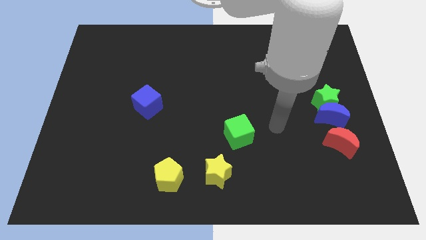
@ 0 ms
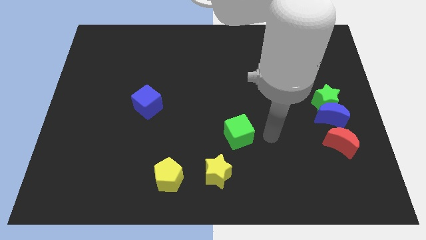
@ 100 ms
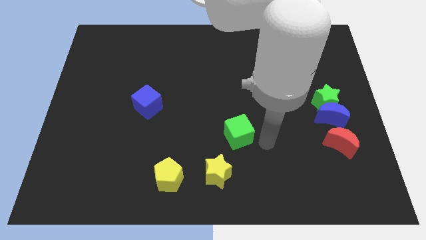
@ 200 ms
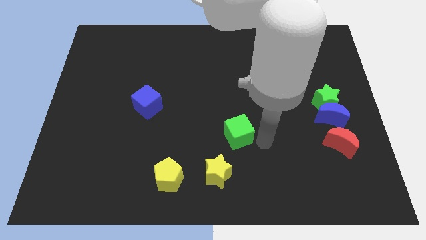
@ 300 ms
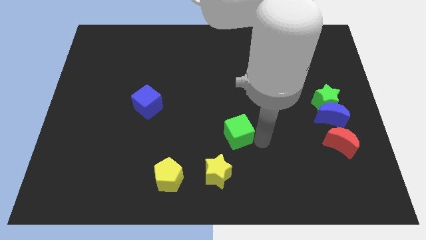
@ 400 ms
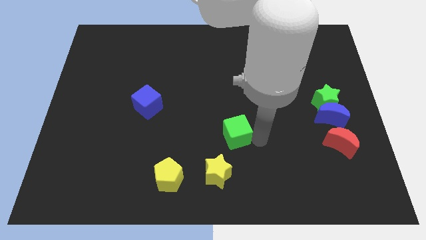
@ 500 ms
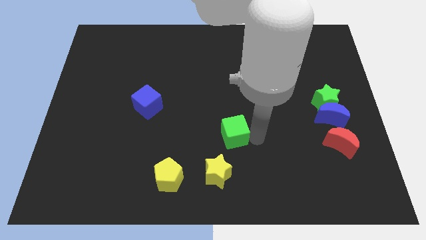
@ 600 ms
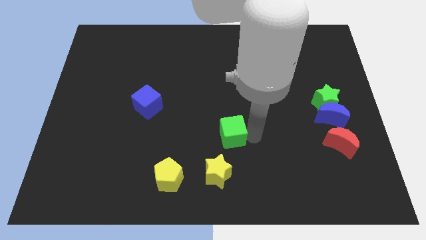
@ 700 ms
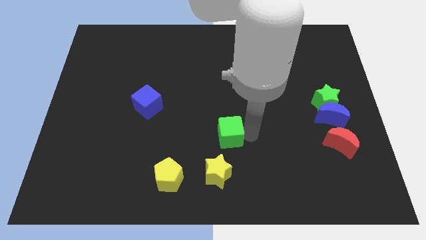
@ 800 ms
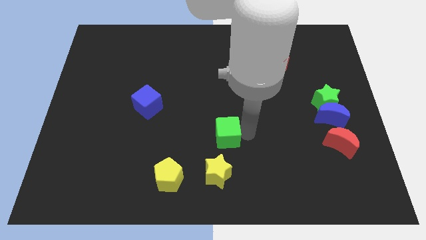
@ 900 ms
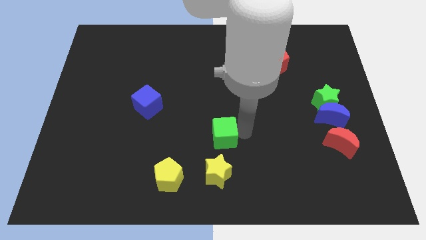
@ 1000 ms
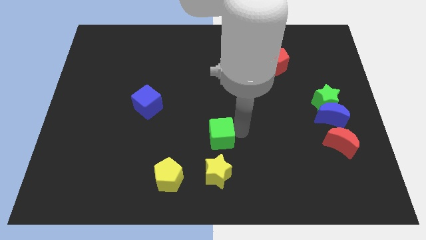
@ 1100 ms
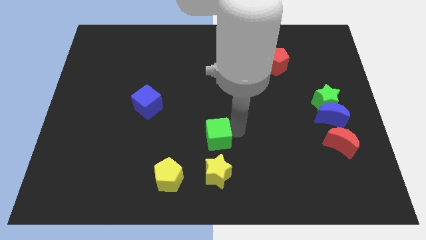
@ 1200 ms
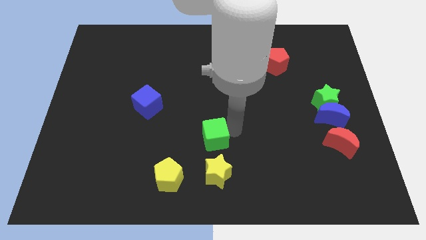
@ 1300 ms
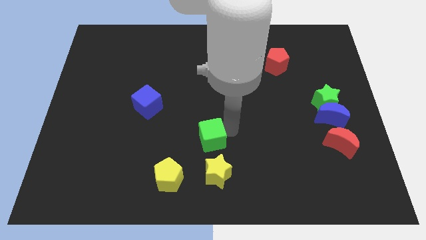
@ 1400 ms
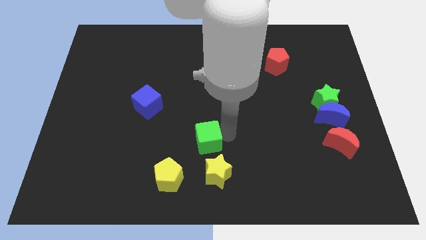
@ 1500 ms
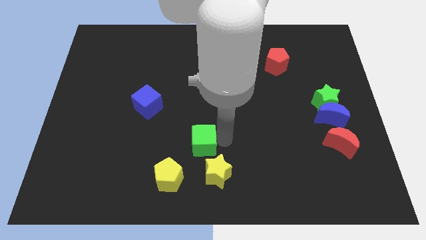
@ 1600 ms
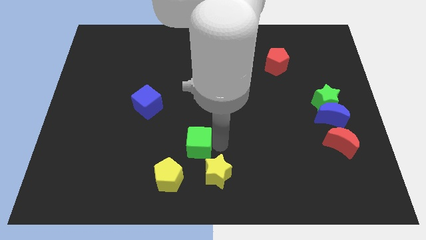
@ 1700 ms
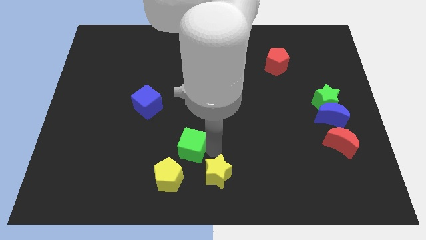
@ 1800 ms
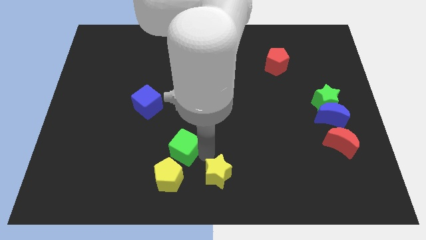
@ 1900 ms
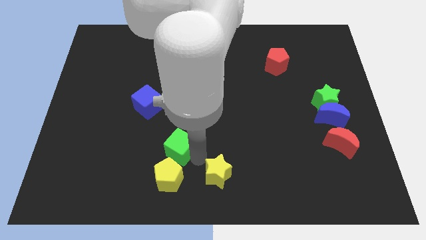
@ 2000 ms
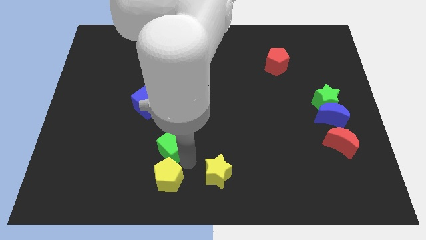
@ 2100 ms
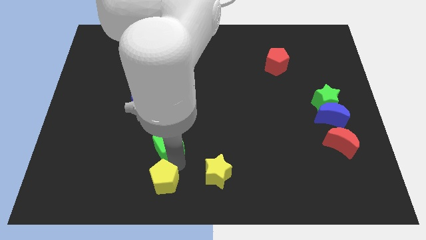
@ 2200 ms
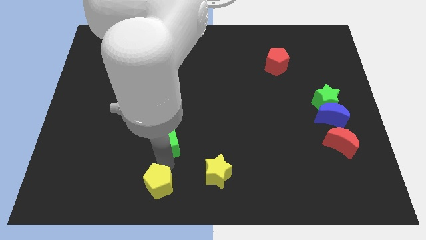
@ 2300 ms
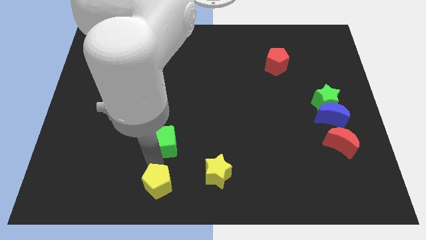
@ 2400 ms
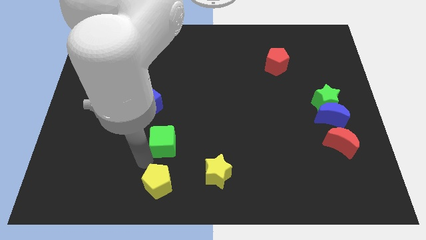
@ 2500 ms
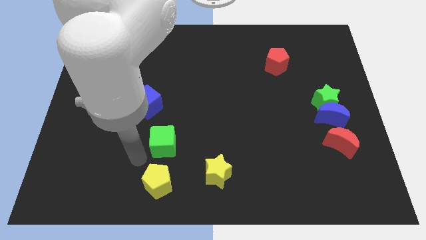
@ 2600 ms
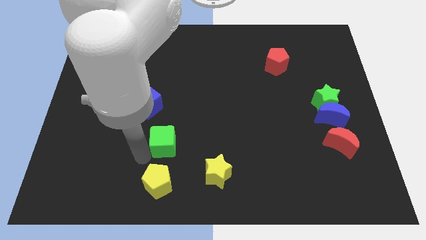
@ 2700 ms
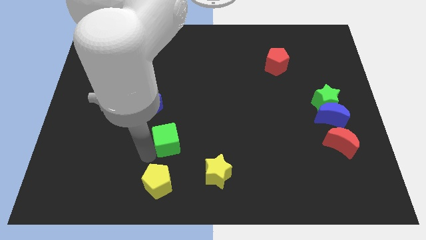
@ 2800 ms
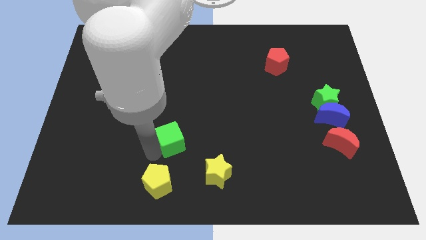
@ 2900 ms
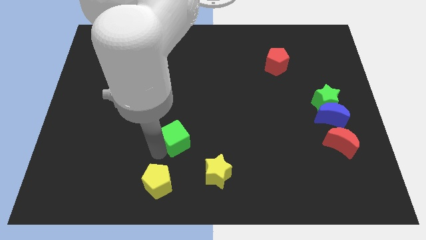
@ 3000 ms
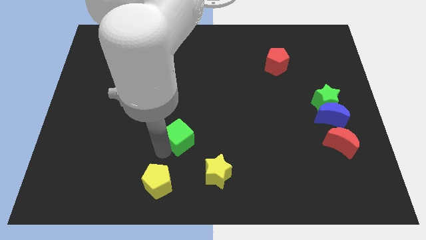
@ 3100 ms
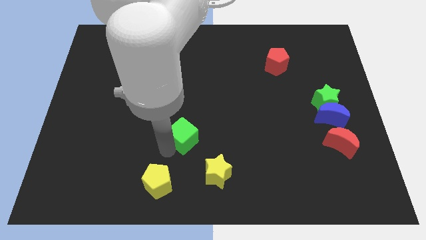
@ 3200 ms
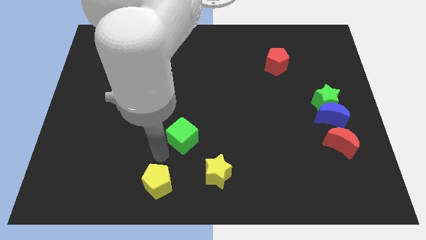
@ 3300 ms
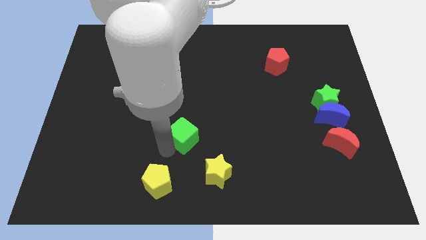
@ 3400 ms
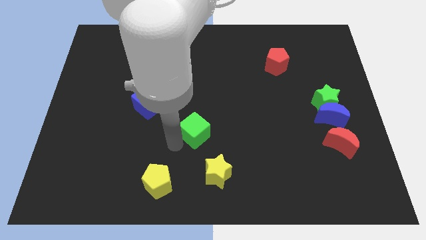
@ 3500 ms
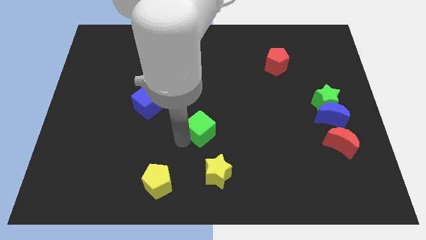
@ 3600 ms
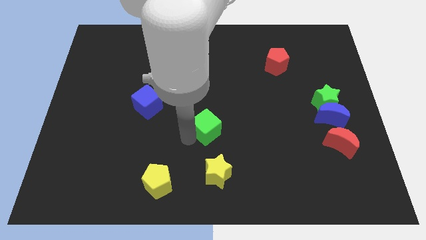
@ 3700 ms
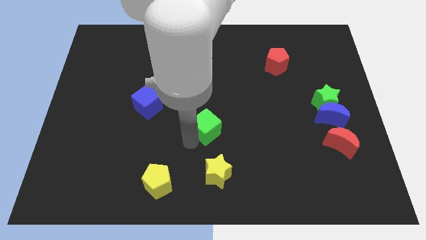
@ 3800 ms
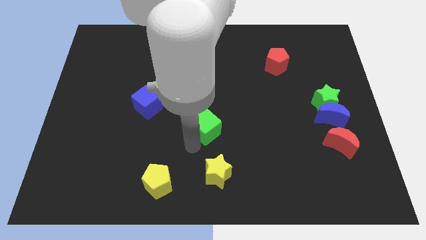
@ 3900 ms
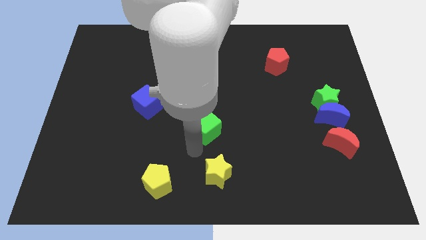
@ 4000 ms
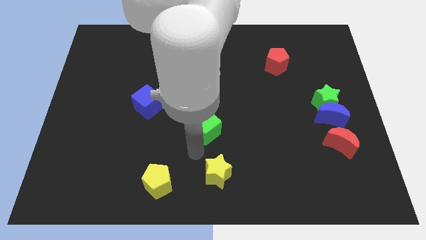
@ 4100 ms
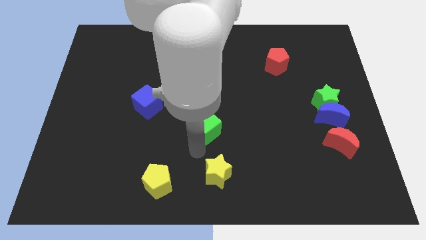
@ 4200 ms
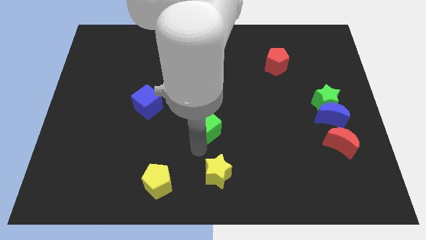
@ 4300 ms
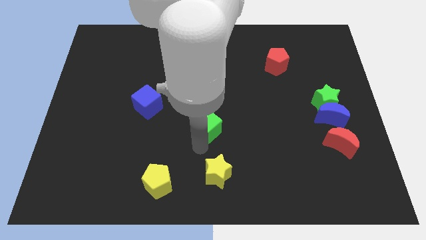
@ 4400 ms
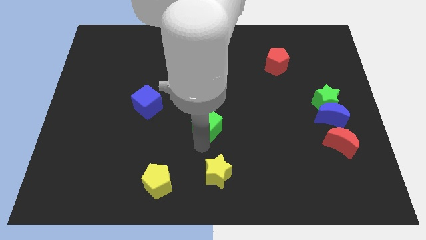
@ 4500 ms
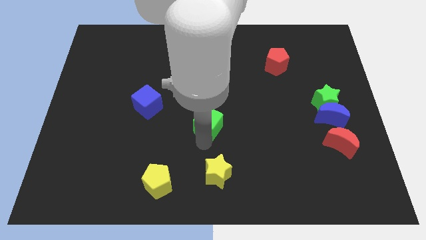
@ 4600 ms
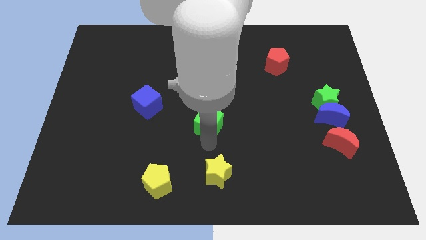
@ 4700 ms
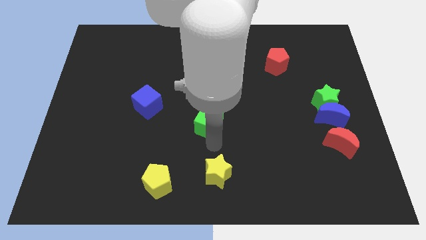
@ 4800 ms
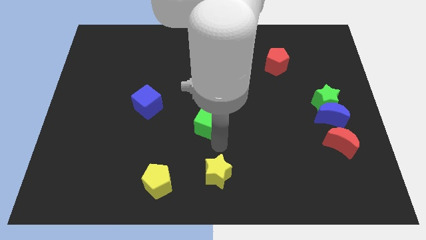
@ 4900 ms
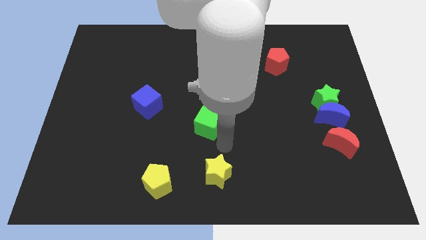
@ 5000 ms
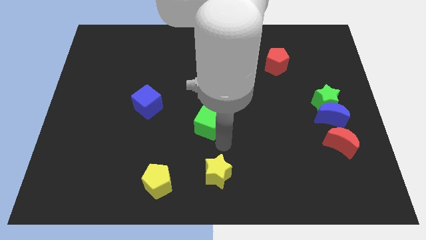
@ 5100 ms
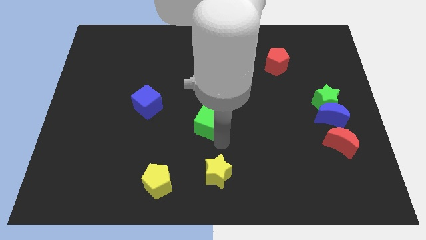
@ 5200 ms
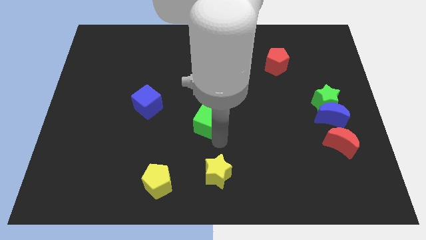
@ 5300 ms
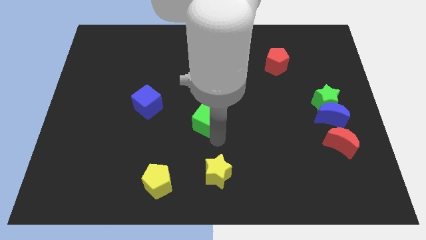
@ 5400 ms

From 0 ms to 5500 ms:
slide the green cube up and to the left a little

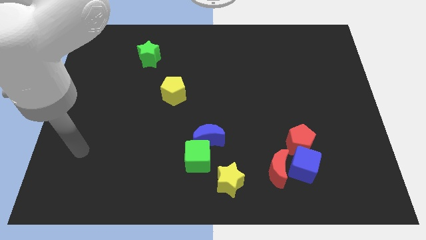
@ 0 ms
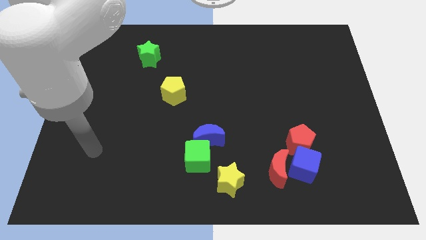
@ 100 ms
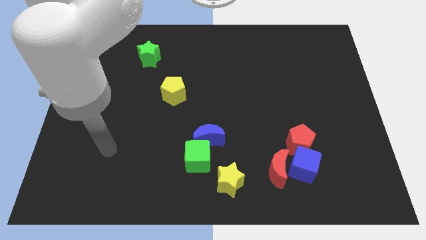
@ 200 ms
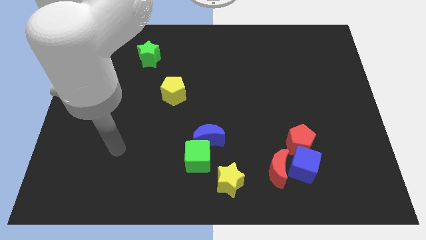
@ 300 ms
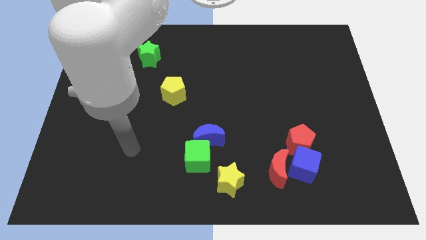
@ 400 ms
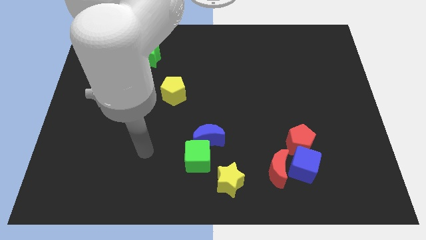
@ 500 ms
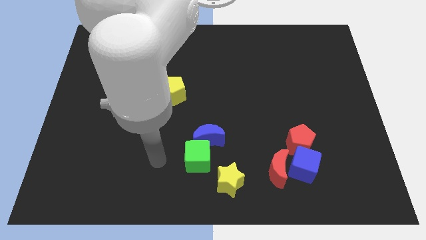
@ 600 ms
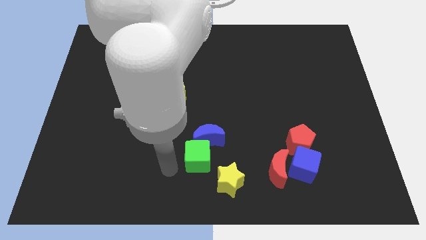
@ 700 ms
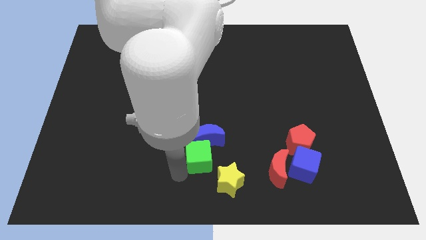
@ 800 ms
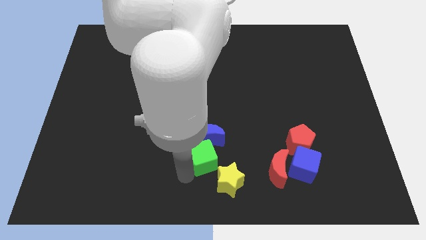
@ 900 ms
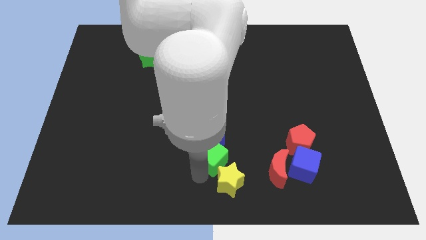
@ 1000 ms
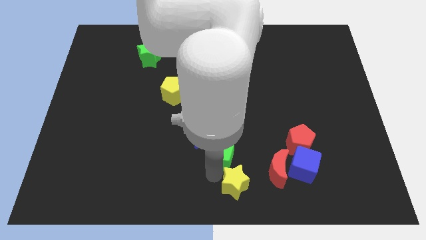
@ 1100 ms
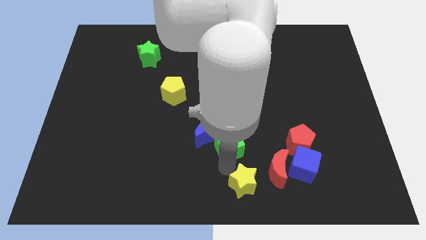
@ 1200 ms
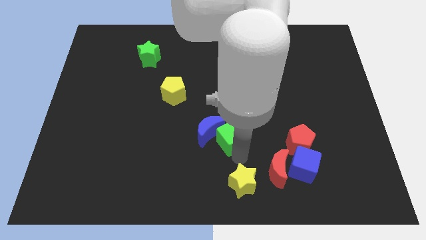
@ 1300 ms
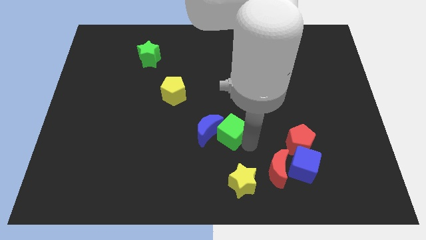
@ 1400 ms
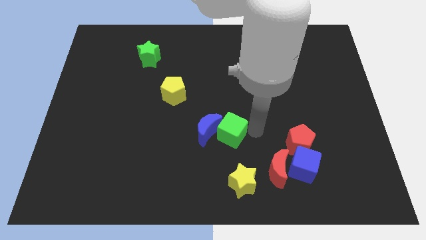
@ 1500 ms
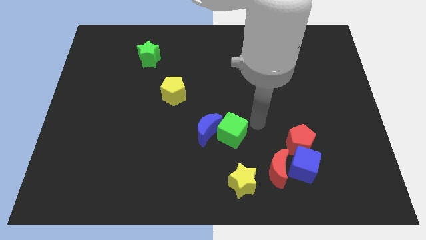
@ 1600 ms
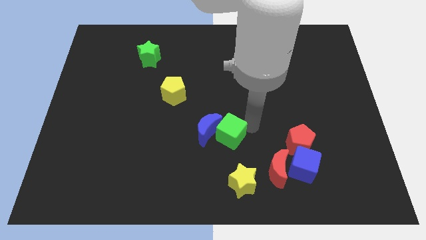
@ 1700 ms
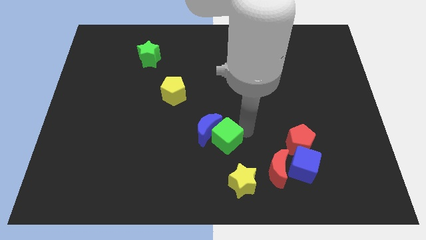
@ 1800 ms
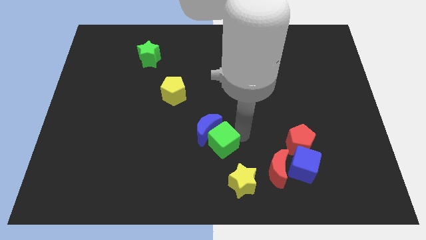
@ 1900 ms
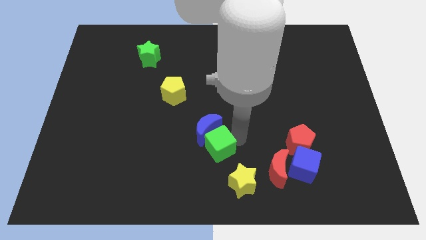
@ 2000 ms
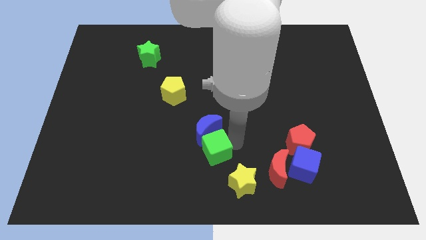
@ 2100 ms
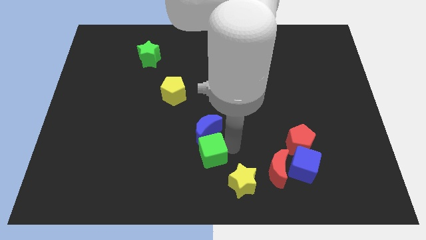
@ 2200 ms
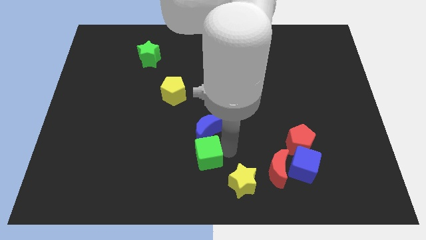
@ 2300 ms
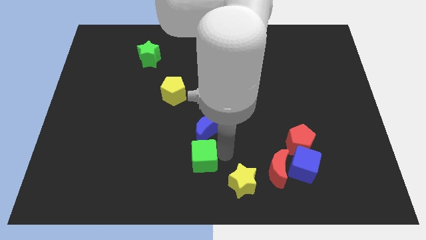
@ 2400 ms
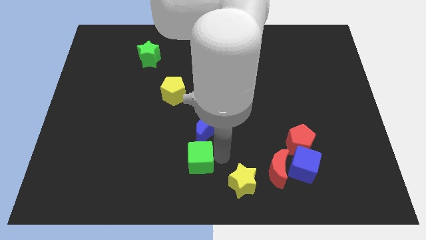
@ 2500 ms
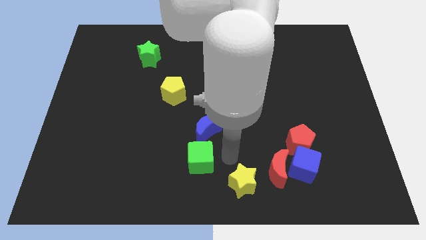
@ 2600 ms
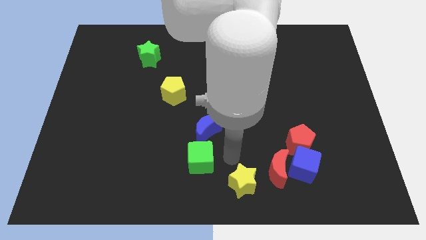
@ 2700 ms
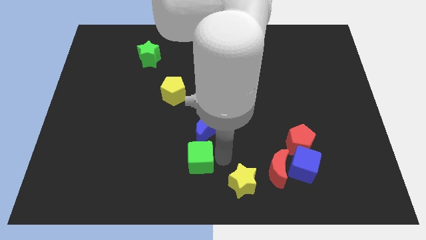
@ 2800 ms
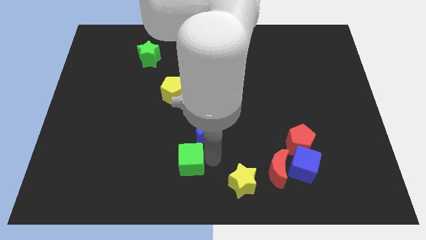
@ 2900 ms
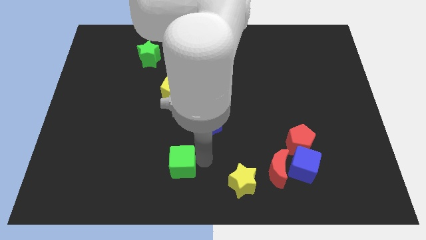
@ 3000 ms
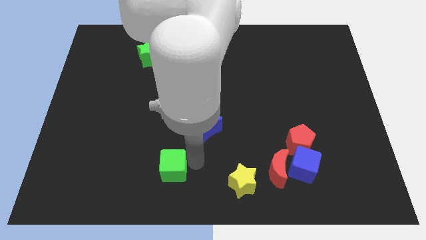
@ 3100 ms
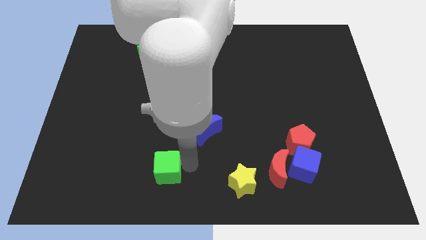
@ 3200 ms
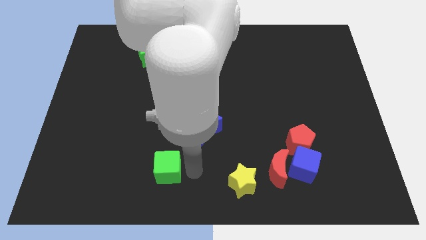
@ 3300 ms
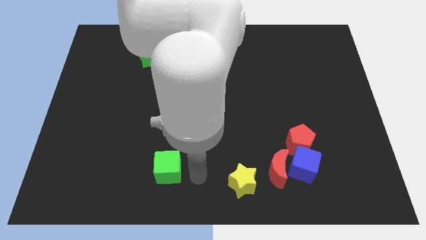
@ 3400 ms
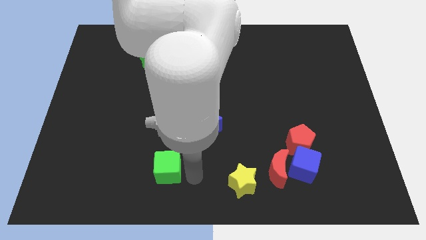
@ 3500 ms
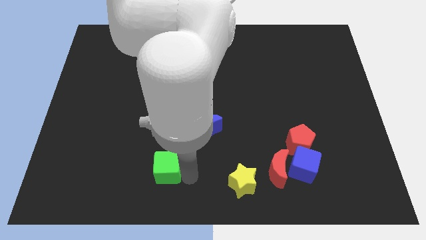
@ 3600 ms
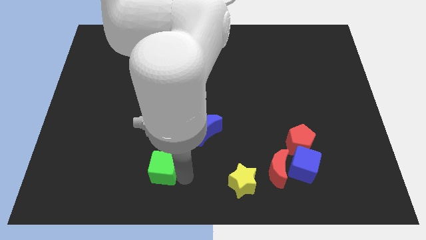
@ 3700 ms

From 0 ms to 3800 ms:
slightly push the green cube to the left
